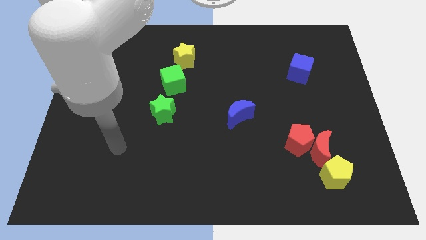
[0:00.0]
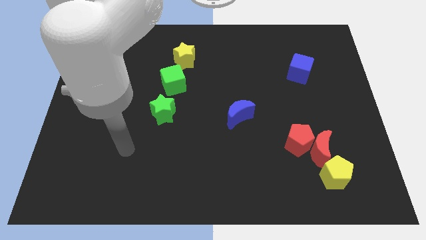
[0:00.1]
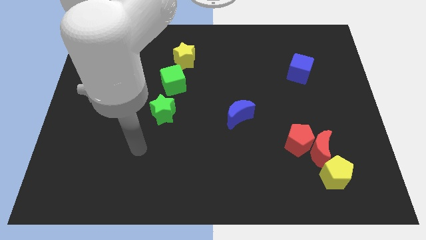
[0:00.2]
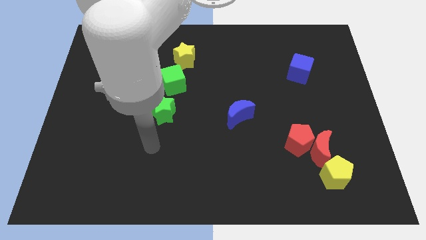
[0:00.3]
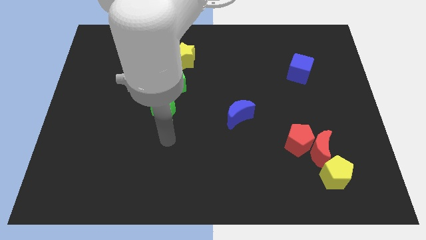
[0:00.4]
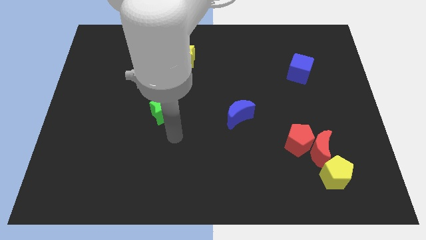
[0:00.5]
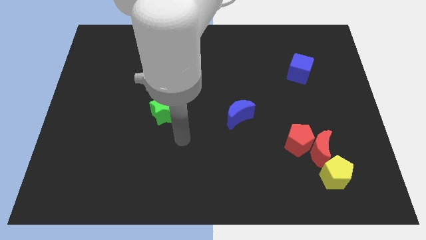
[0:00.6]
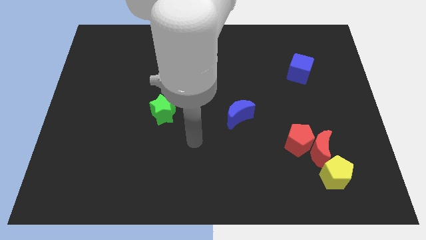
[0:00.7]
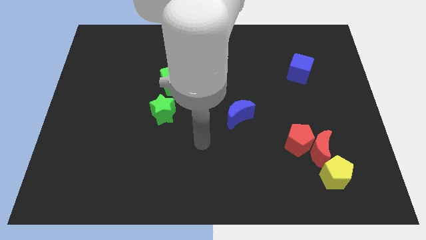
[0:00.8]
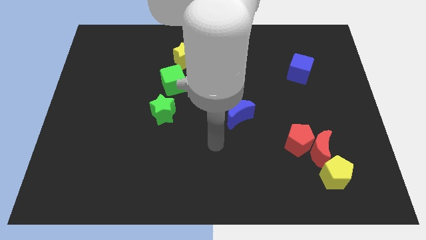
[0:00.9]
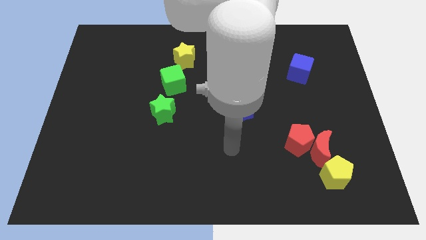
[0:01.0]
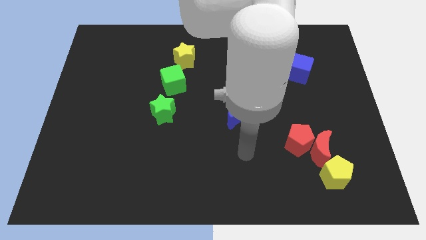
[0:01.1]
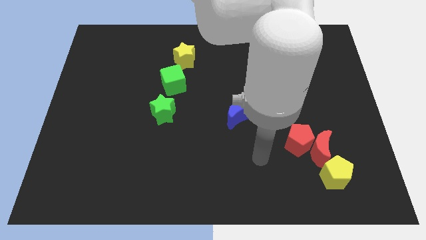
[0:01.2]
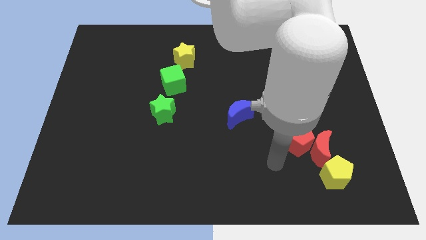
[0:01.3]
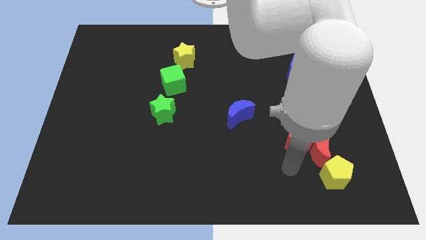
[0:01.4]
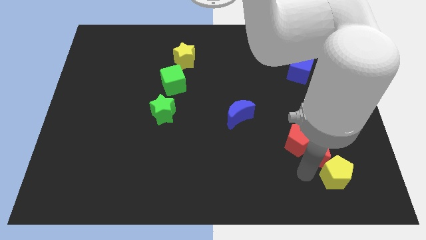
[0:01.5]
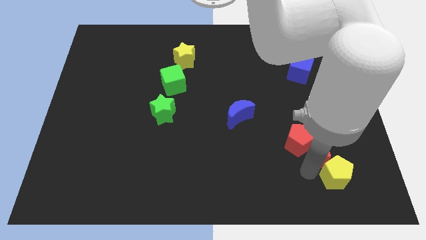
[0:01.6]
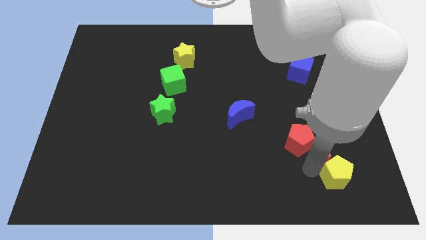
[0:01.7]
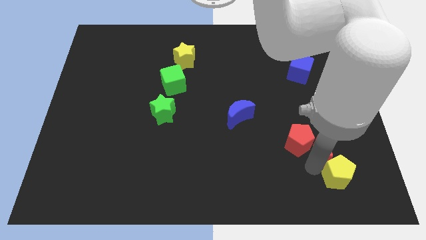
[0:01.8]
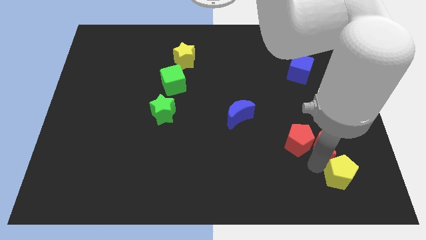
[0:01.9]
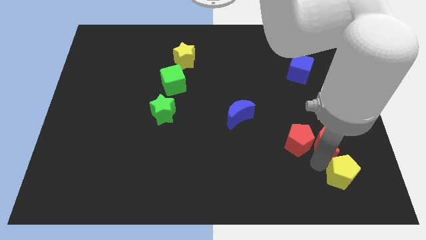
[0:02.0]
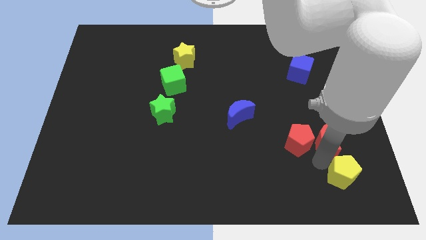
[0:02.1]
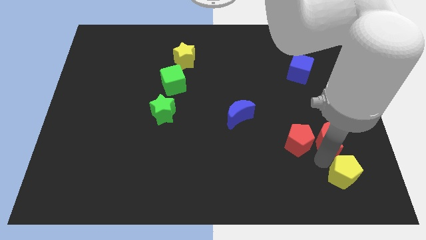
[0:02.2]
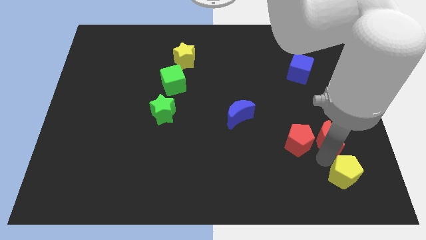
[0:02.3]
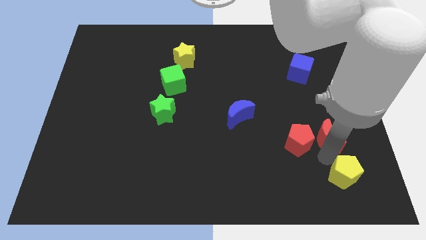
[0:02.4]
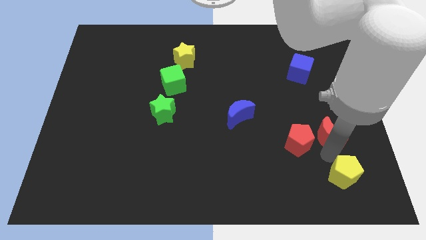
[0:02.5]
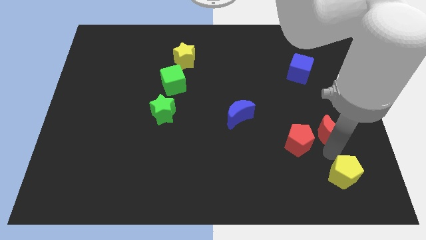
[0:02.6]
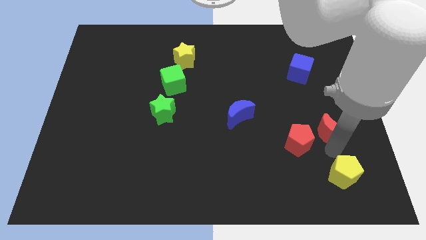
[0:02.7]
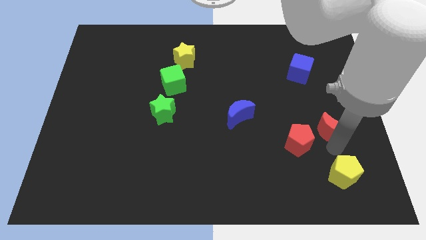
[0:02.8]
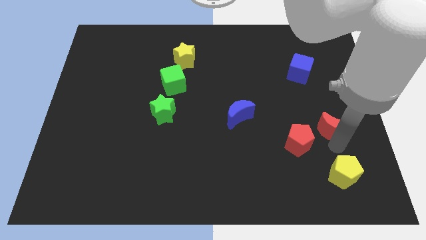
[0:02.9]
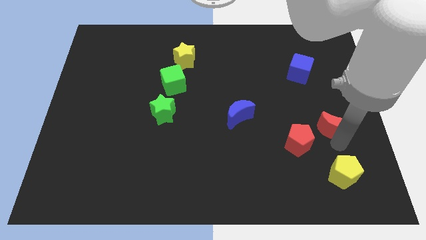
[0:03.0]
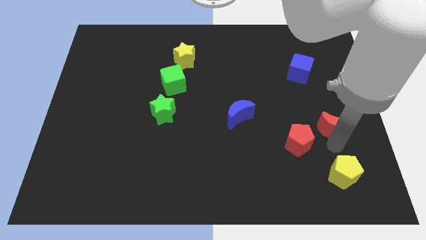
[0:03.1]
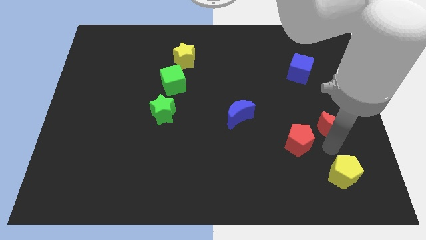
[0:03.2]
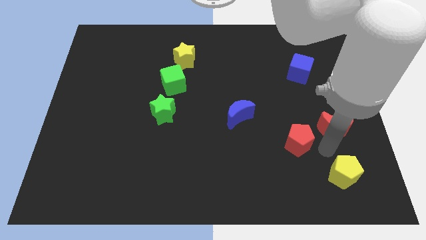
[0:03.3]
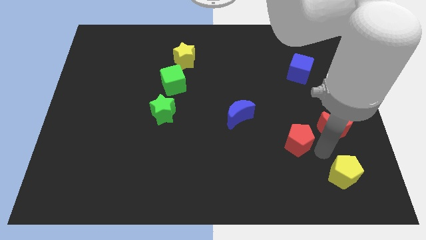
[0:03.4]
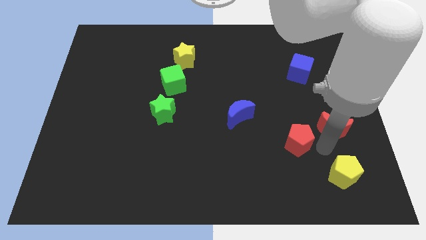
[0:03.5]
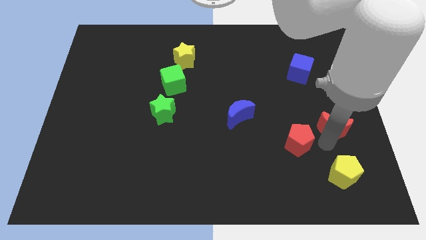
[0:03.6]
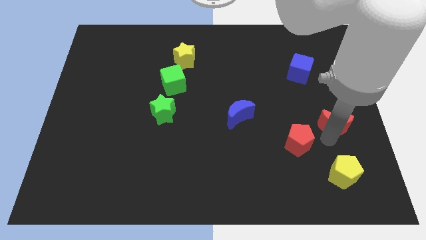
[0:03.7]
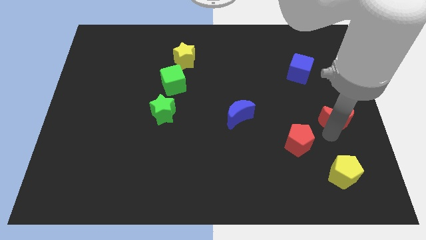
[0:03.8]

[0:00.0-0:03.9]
pull the red moon apart from the red pentagon and yellow pentagon

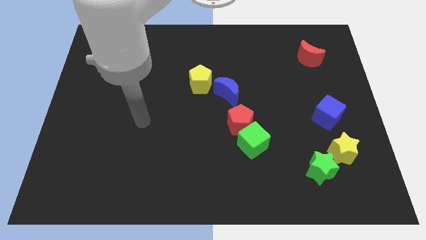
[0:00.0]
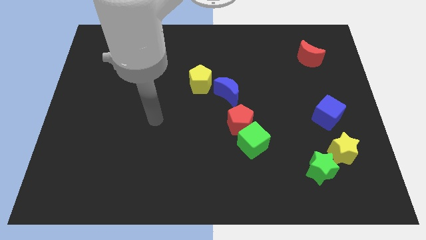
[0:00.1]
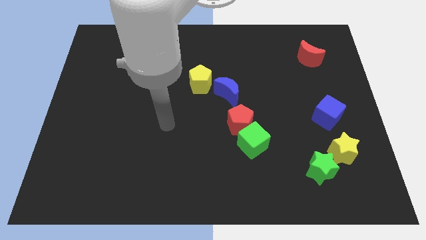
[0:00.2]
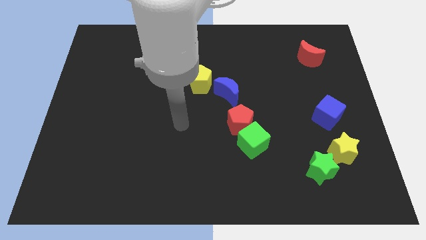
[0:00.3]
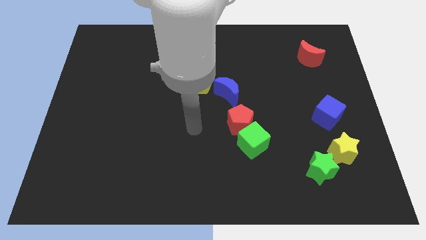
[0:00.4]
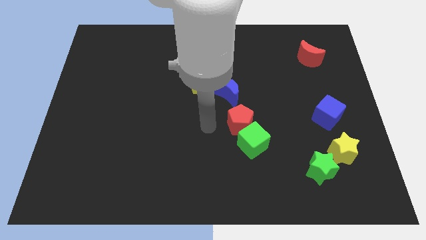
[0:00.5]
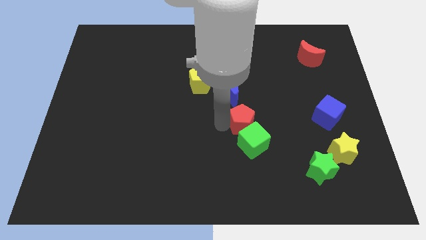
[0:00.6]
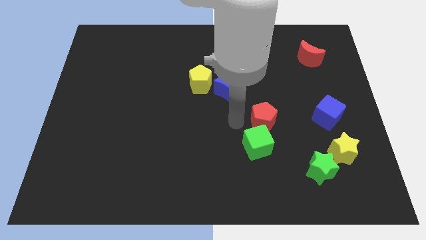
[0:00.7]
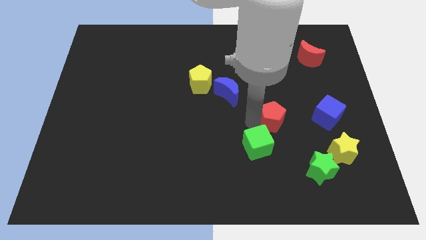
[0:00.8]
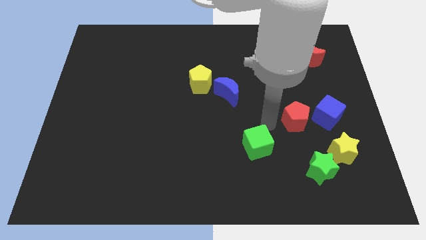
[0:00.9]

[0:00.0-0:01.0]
separate the green cube from the red pentagon

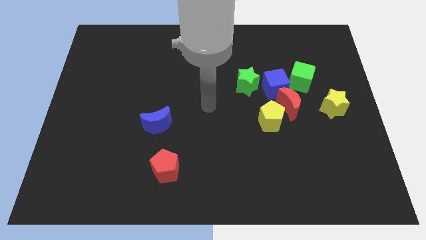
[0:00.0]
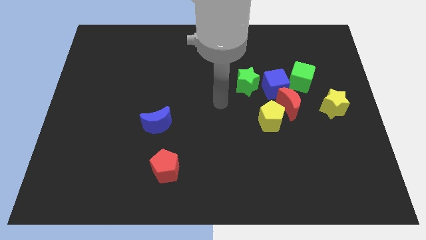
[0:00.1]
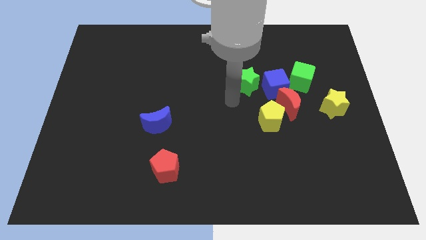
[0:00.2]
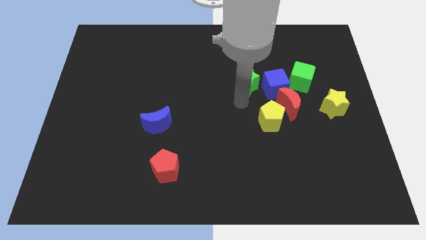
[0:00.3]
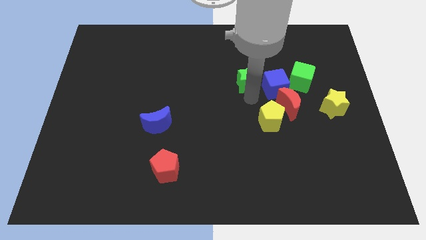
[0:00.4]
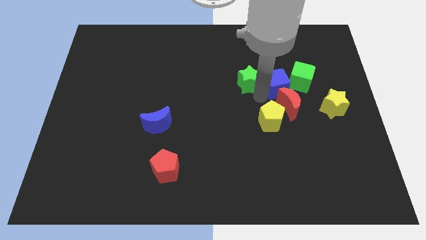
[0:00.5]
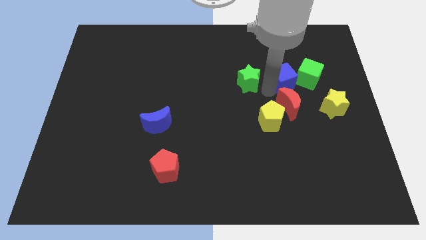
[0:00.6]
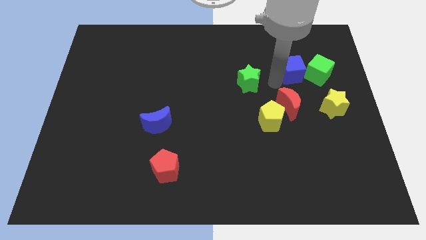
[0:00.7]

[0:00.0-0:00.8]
separate the green star from the blue cube

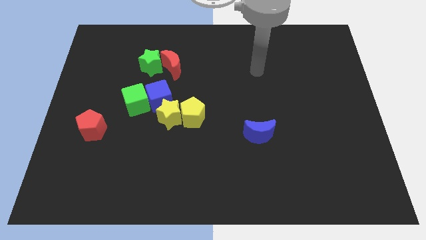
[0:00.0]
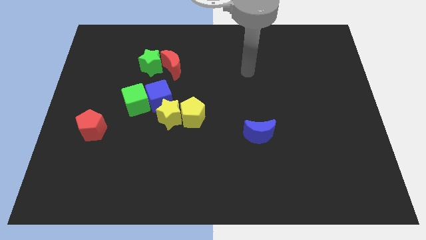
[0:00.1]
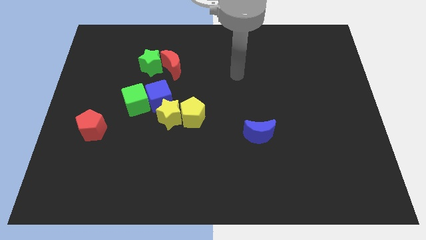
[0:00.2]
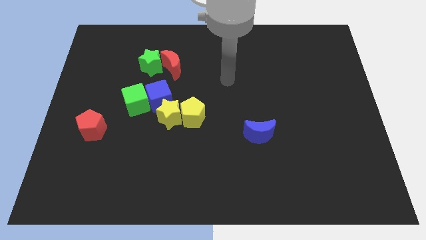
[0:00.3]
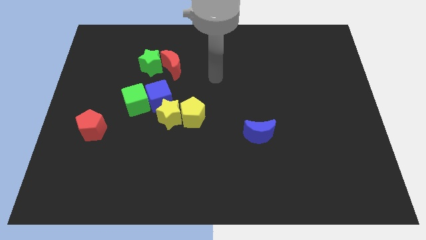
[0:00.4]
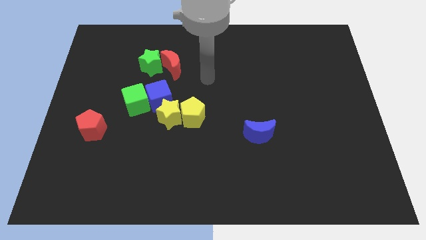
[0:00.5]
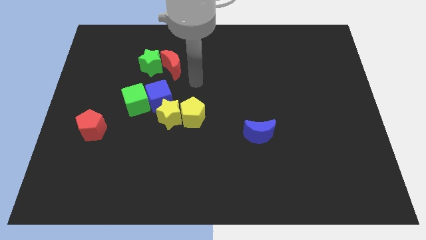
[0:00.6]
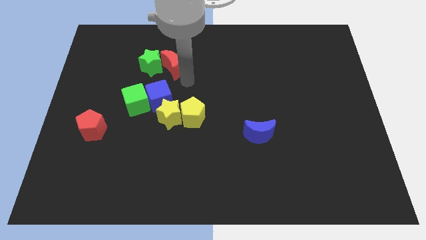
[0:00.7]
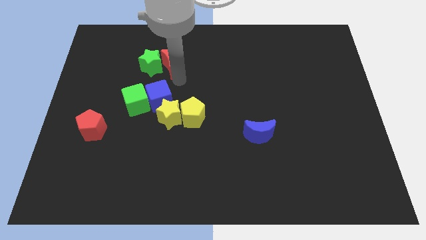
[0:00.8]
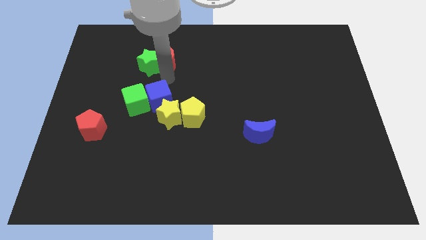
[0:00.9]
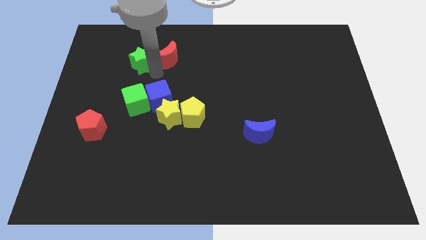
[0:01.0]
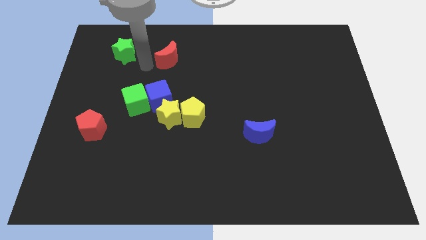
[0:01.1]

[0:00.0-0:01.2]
pull the red moon apart from the green star

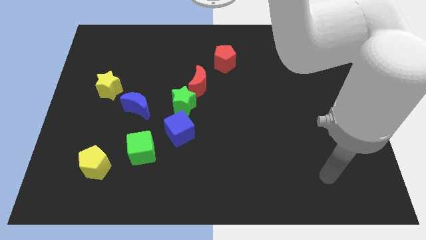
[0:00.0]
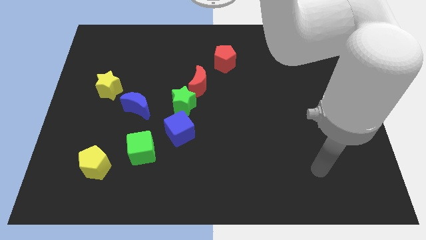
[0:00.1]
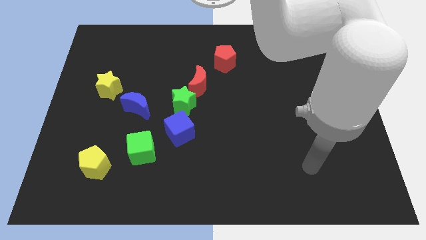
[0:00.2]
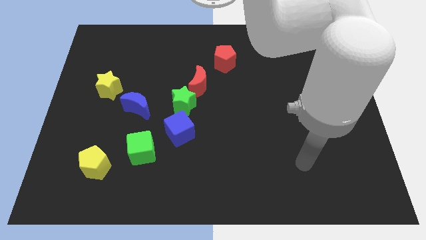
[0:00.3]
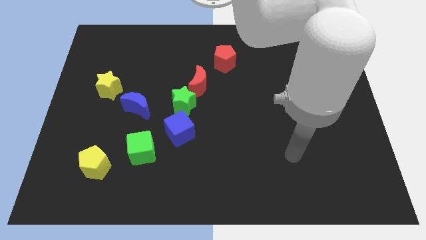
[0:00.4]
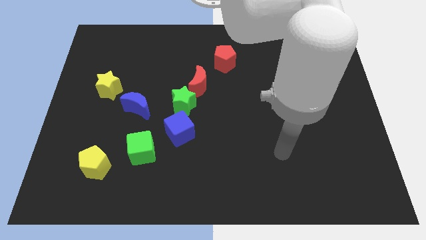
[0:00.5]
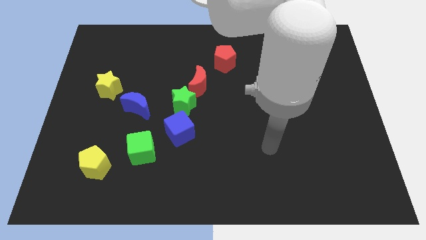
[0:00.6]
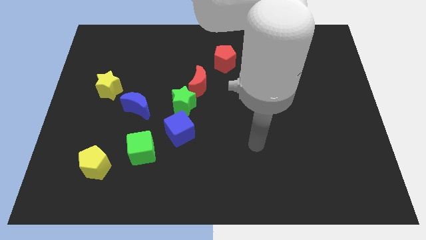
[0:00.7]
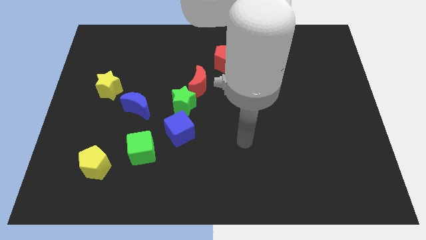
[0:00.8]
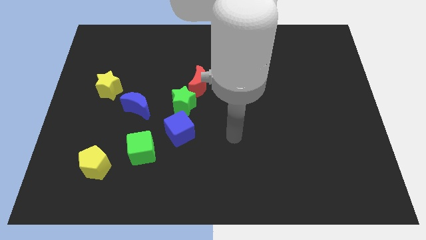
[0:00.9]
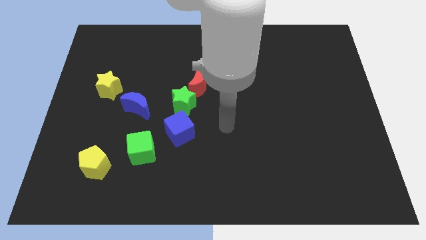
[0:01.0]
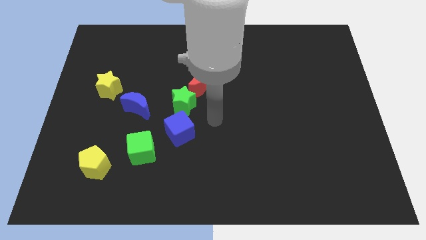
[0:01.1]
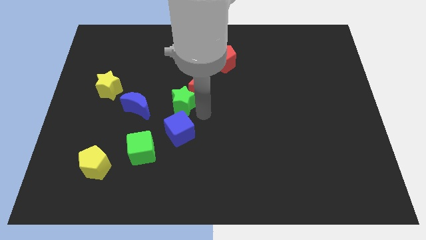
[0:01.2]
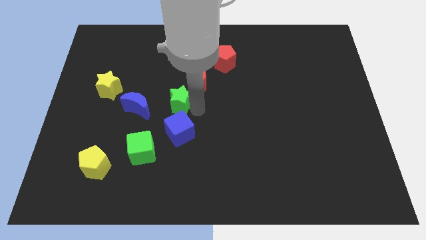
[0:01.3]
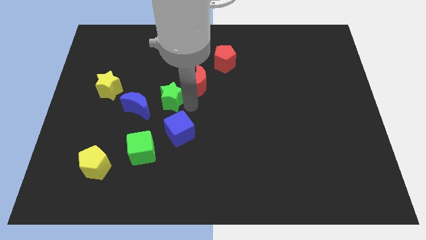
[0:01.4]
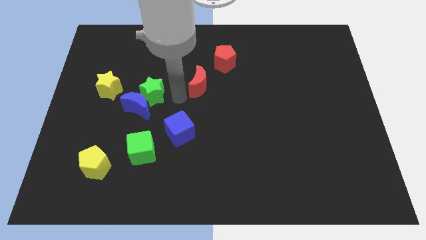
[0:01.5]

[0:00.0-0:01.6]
move the red moon away from the green star

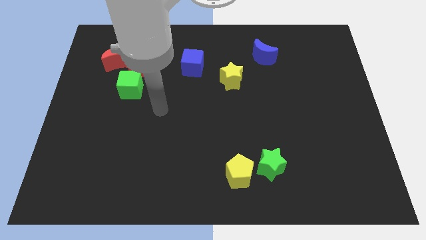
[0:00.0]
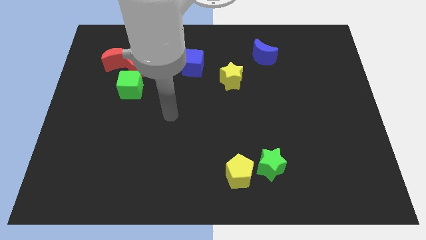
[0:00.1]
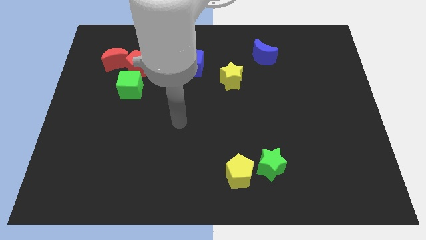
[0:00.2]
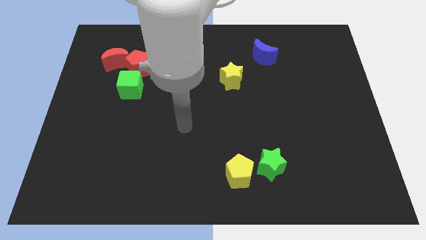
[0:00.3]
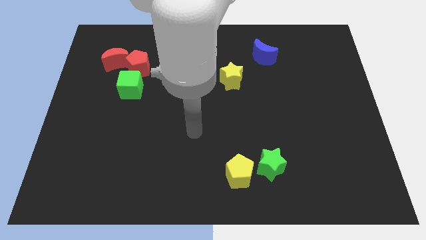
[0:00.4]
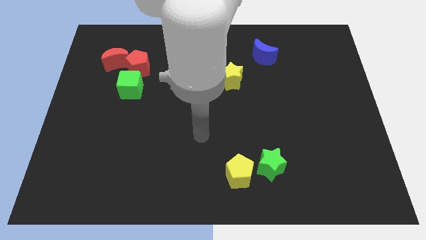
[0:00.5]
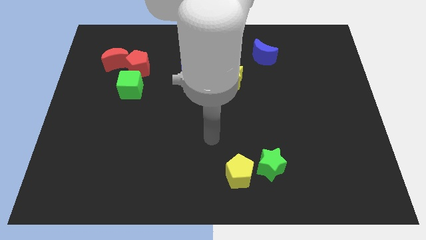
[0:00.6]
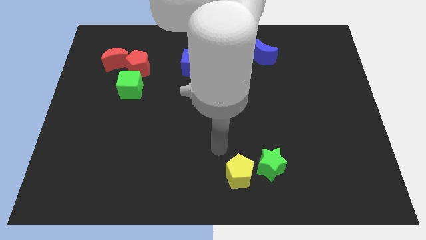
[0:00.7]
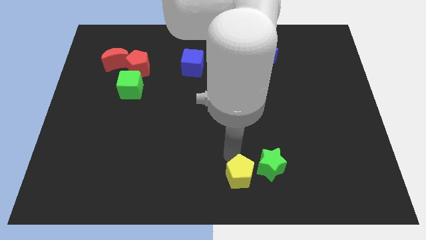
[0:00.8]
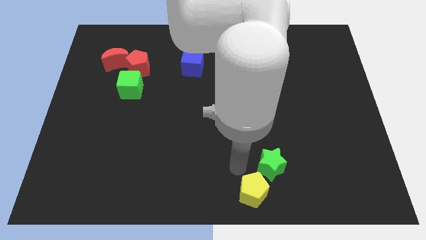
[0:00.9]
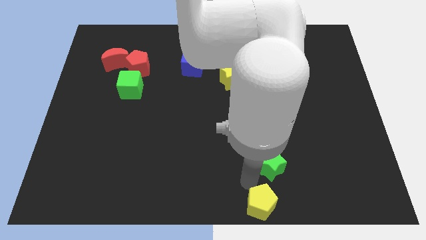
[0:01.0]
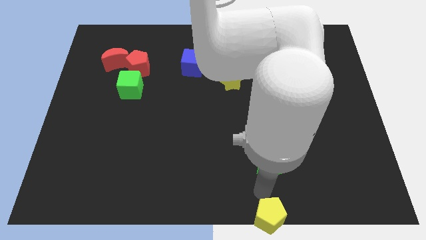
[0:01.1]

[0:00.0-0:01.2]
pull the green star apart from the yellow pentagon
